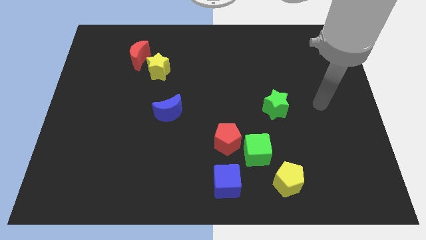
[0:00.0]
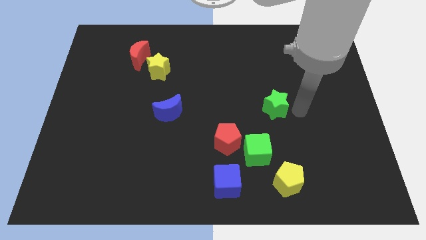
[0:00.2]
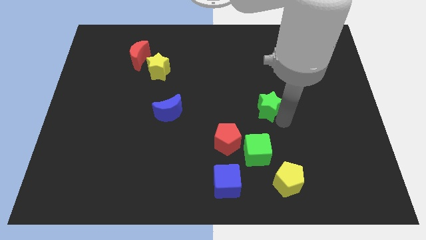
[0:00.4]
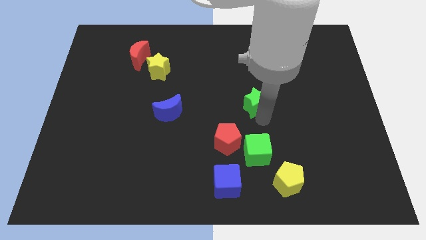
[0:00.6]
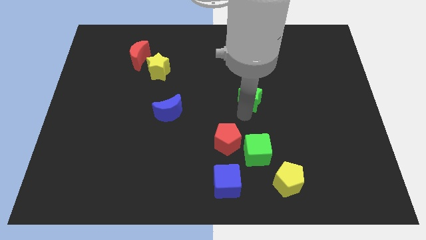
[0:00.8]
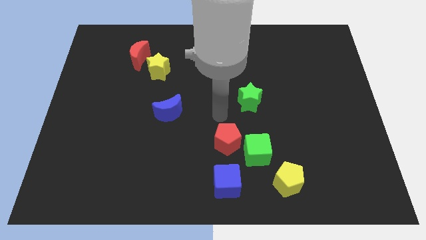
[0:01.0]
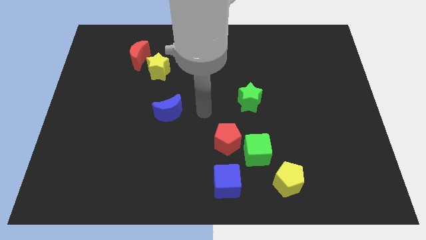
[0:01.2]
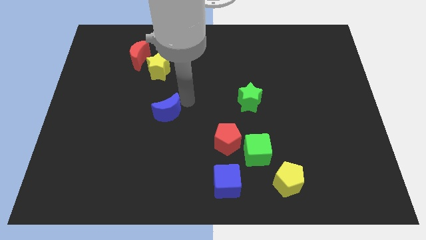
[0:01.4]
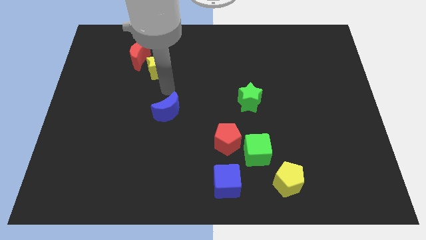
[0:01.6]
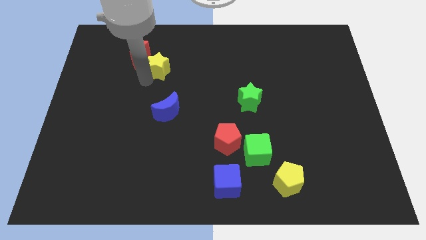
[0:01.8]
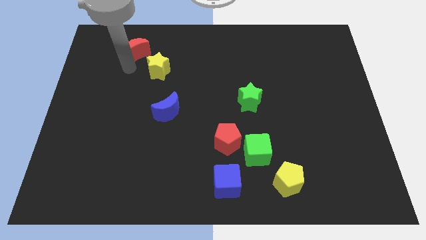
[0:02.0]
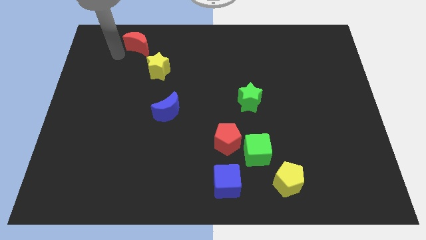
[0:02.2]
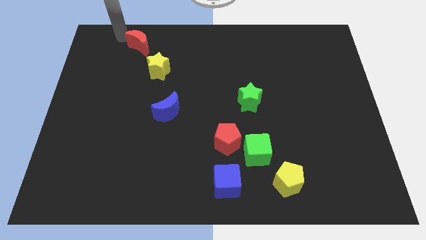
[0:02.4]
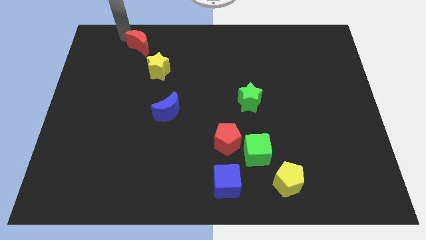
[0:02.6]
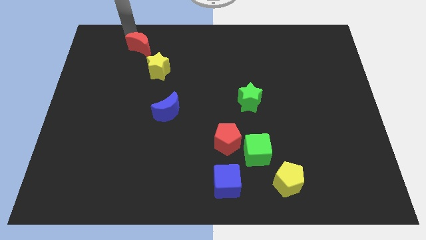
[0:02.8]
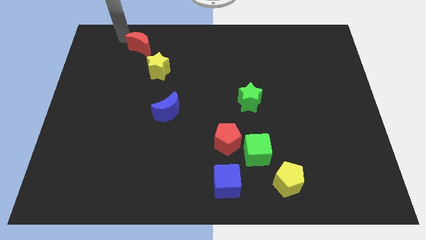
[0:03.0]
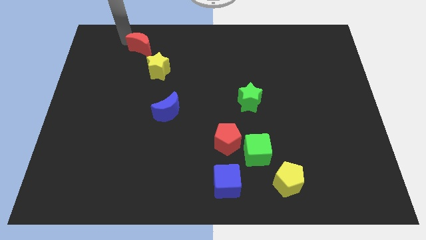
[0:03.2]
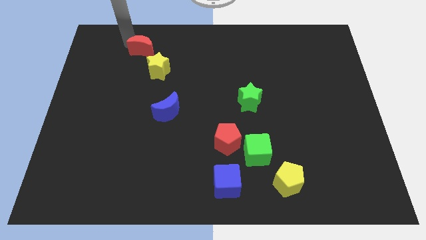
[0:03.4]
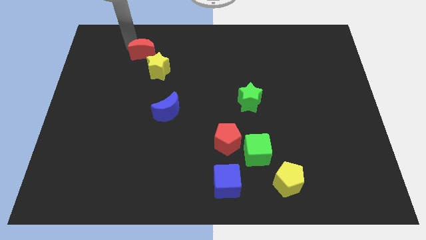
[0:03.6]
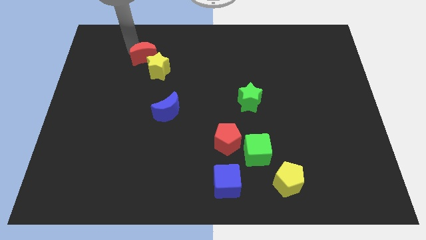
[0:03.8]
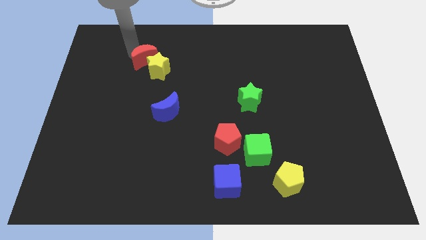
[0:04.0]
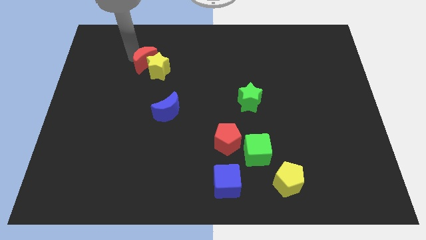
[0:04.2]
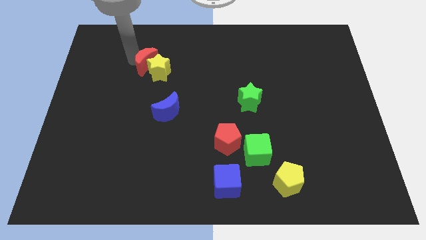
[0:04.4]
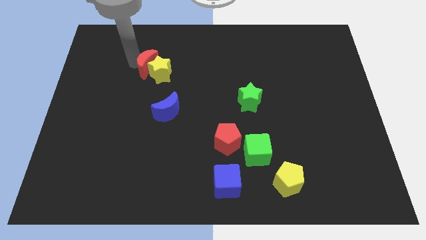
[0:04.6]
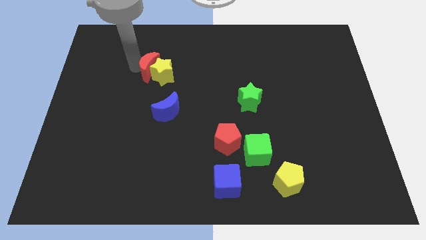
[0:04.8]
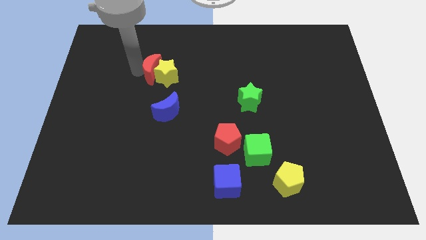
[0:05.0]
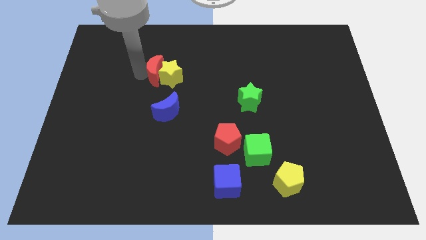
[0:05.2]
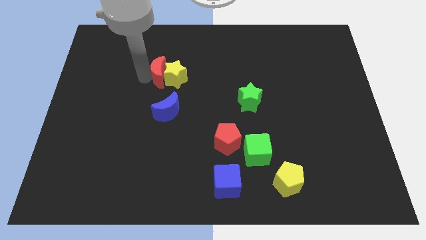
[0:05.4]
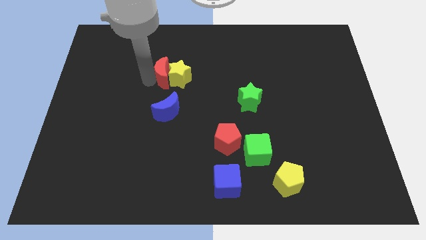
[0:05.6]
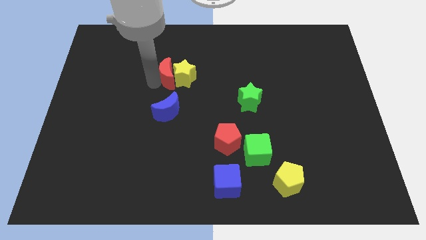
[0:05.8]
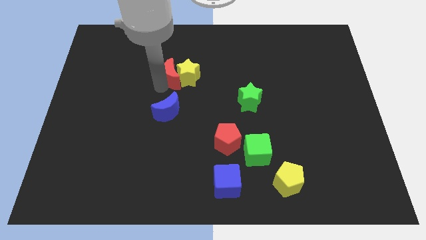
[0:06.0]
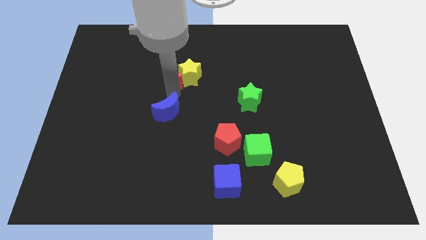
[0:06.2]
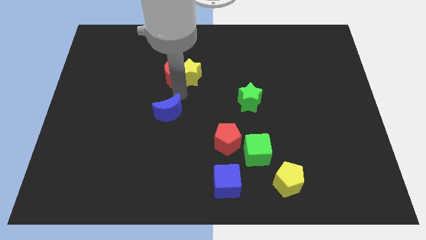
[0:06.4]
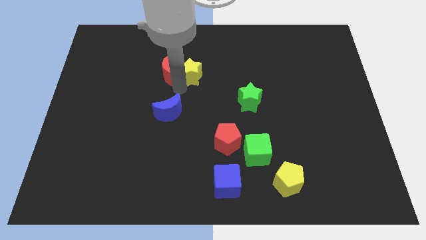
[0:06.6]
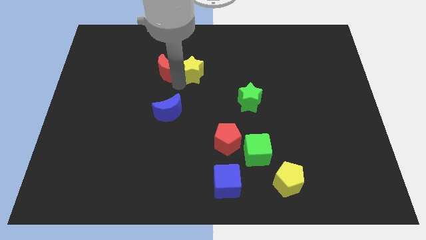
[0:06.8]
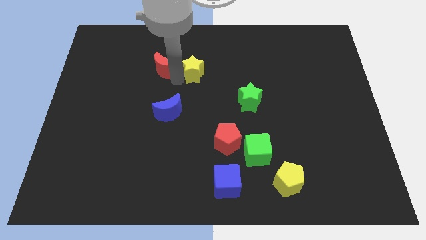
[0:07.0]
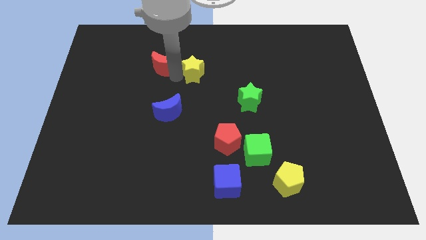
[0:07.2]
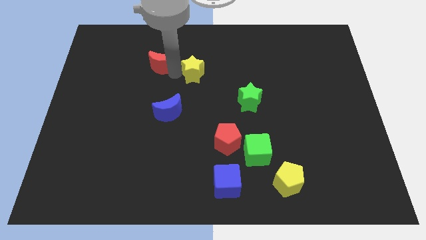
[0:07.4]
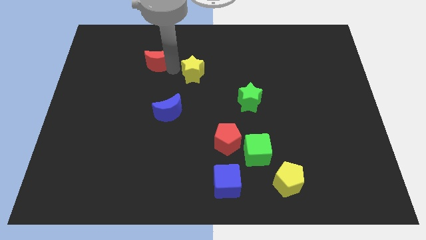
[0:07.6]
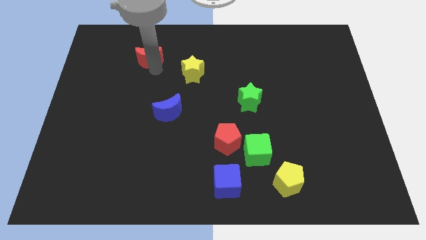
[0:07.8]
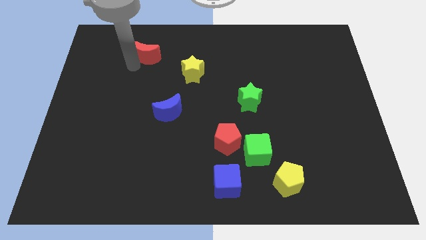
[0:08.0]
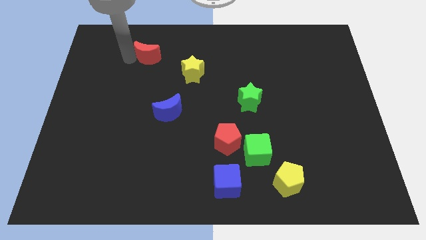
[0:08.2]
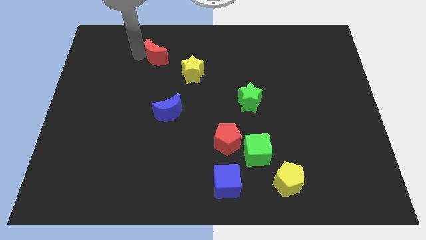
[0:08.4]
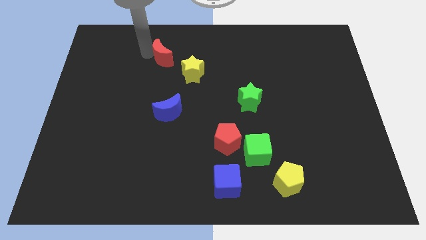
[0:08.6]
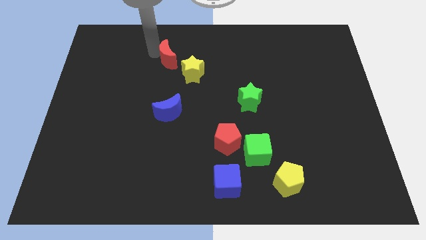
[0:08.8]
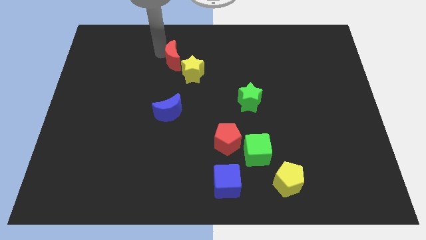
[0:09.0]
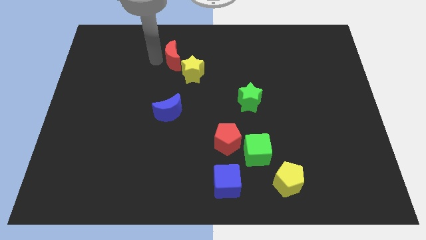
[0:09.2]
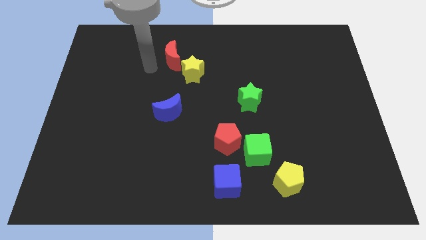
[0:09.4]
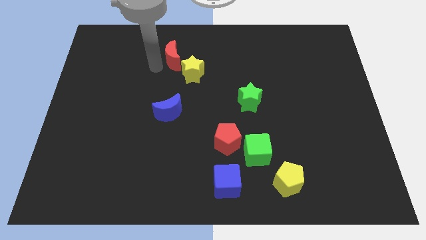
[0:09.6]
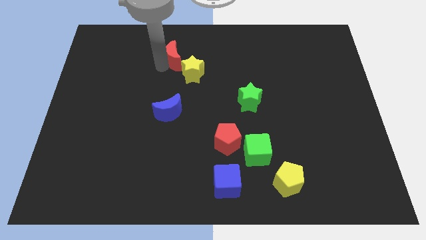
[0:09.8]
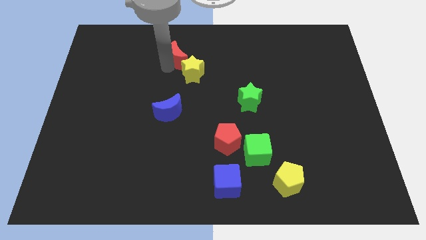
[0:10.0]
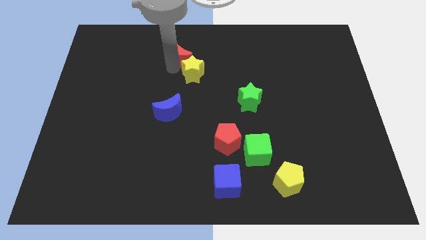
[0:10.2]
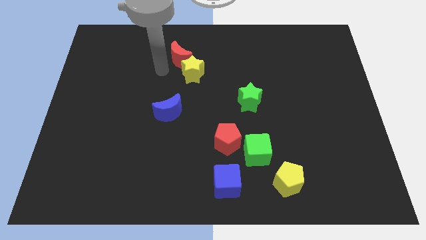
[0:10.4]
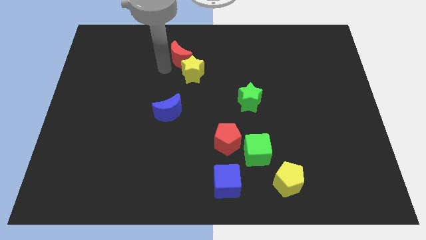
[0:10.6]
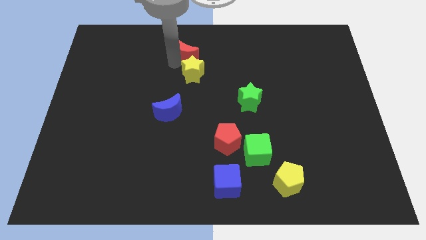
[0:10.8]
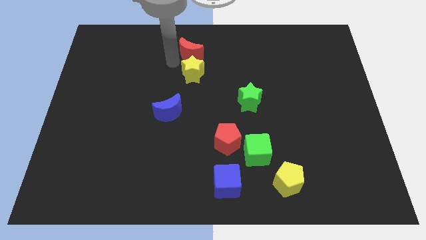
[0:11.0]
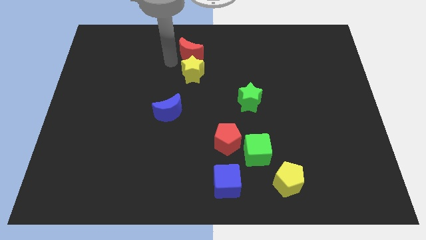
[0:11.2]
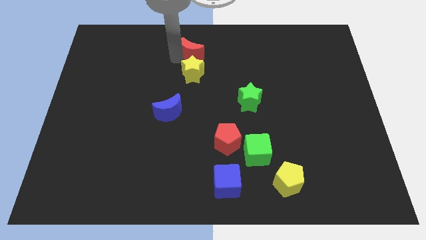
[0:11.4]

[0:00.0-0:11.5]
put the red moon to the towards your base
